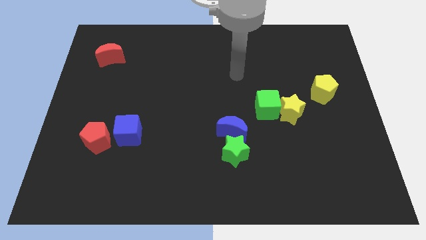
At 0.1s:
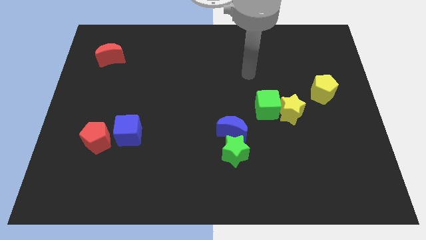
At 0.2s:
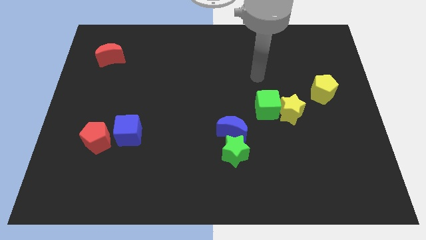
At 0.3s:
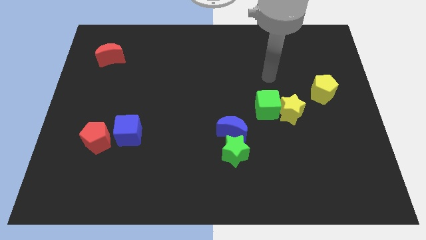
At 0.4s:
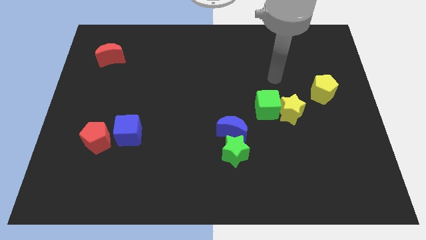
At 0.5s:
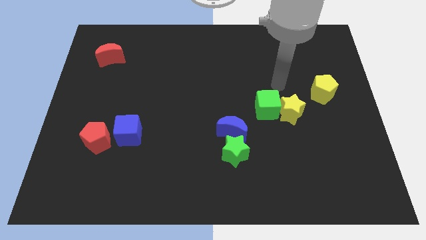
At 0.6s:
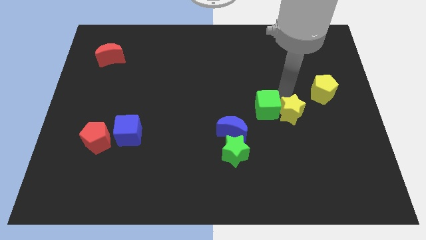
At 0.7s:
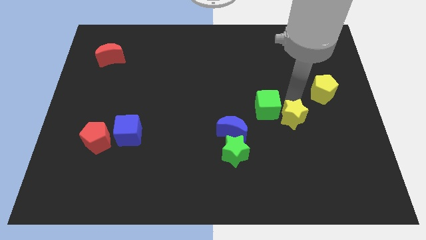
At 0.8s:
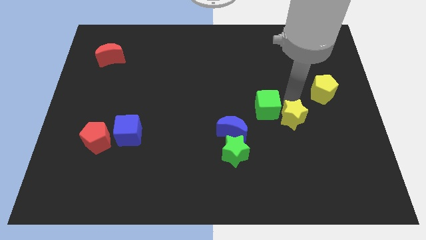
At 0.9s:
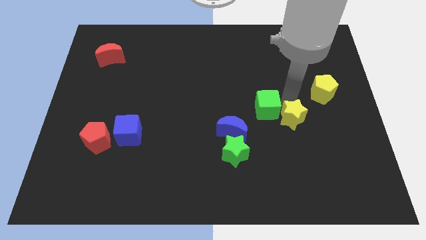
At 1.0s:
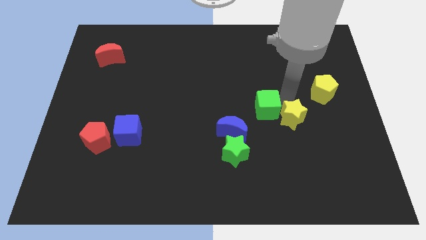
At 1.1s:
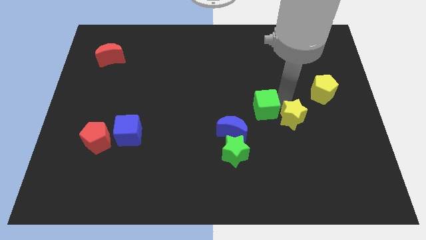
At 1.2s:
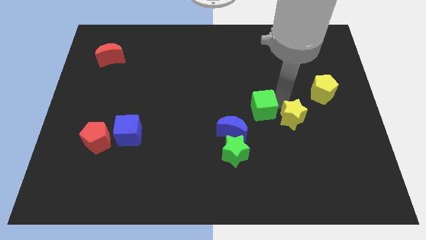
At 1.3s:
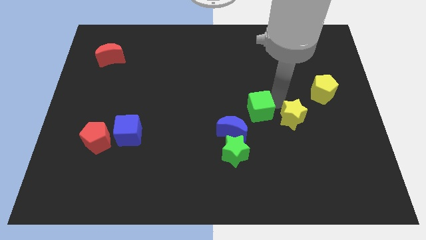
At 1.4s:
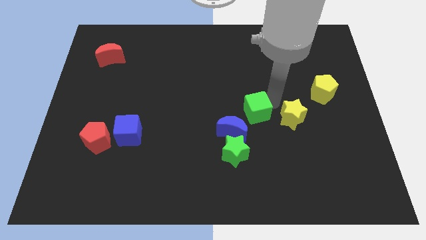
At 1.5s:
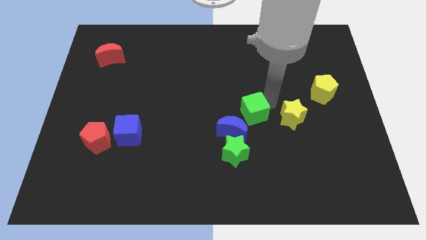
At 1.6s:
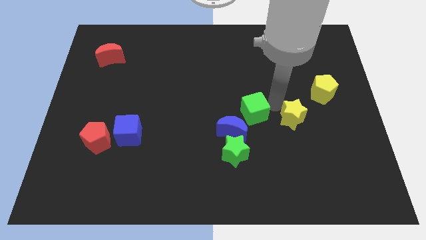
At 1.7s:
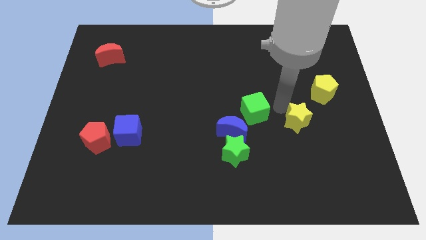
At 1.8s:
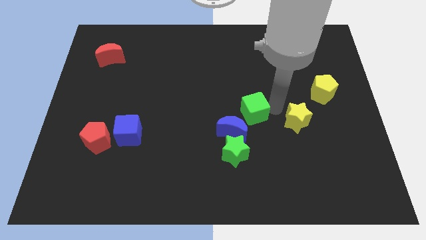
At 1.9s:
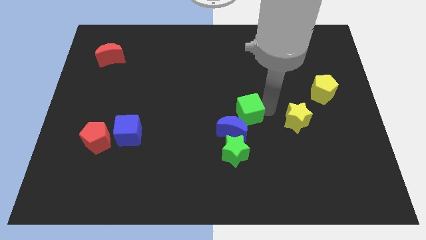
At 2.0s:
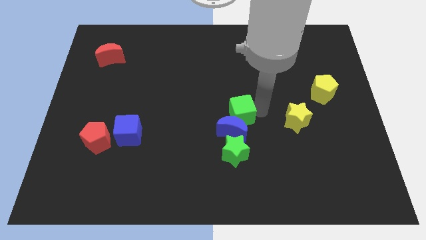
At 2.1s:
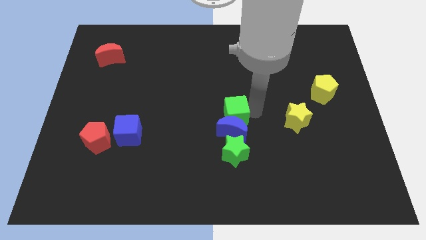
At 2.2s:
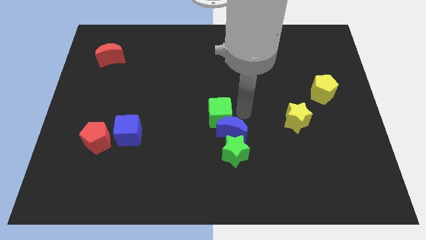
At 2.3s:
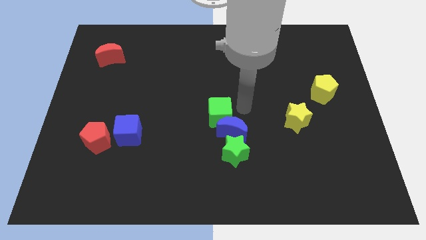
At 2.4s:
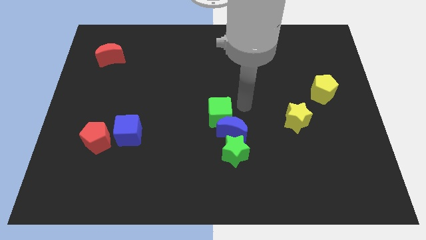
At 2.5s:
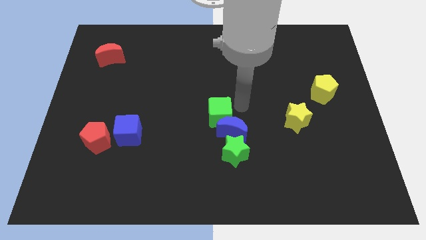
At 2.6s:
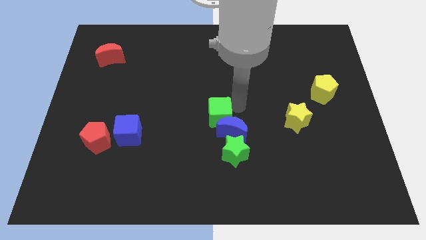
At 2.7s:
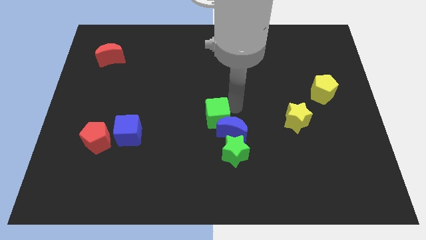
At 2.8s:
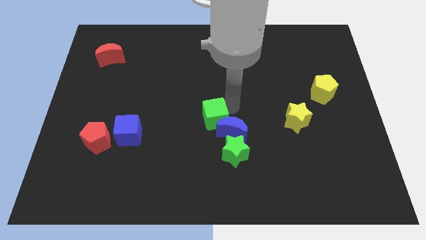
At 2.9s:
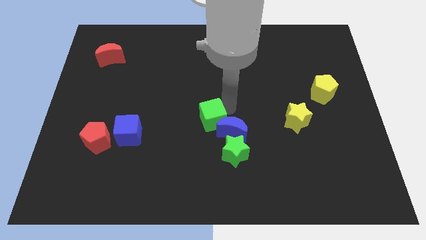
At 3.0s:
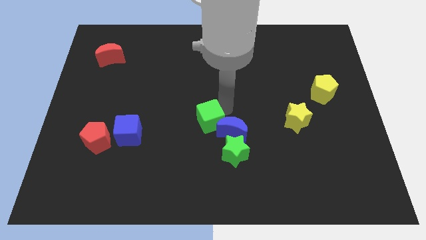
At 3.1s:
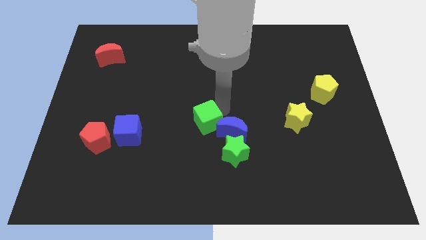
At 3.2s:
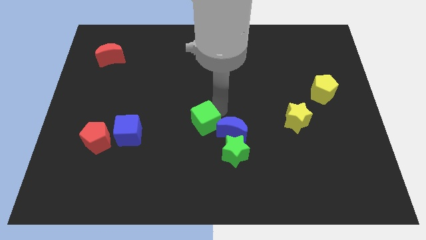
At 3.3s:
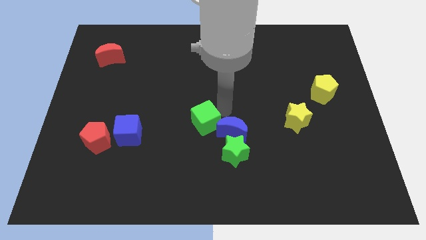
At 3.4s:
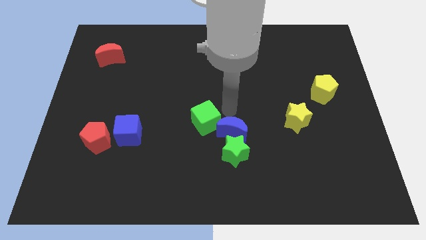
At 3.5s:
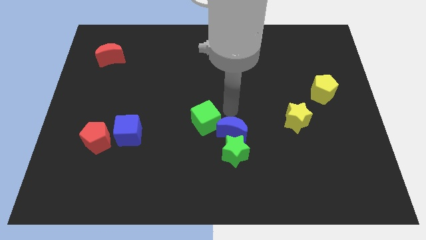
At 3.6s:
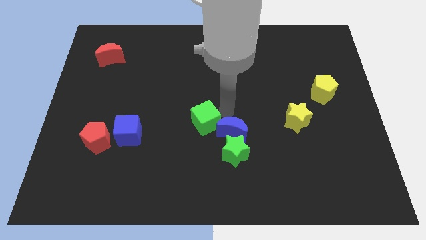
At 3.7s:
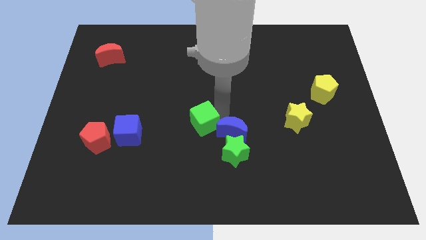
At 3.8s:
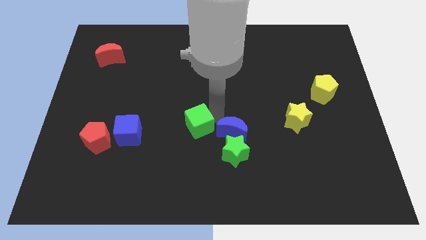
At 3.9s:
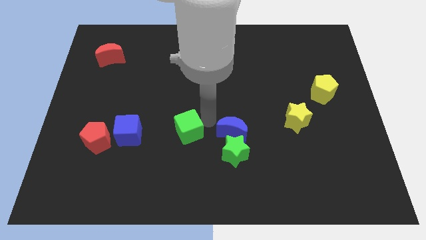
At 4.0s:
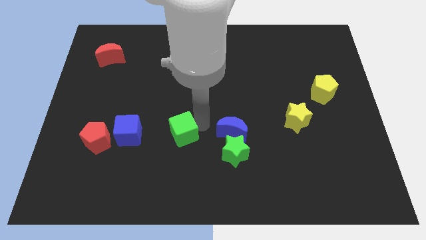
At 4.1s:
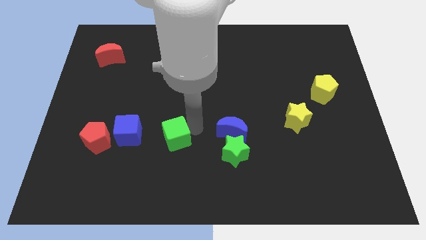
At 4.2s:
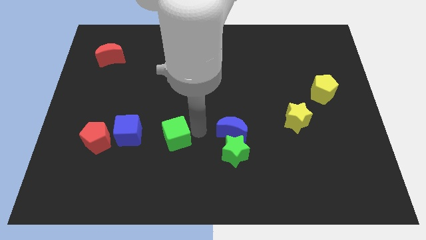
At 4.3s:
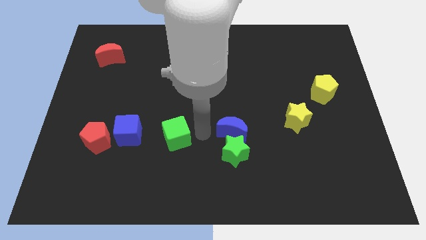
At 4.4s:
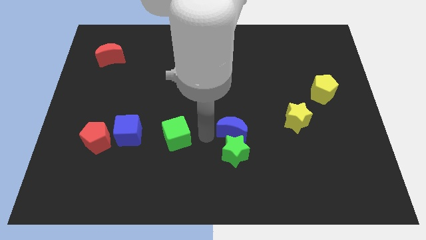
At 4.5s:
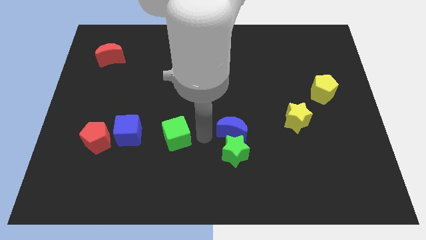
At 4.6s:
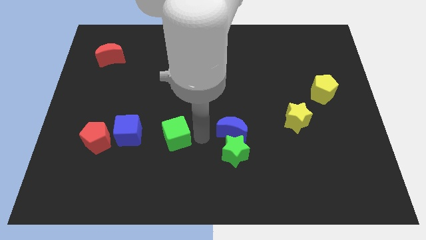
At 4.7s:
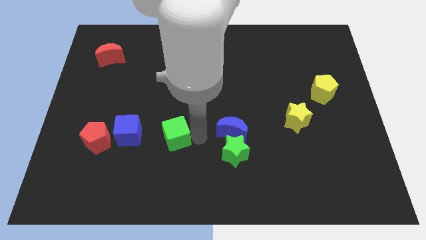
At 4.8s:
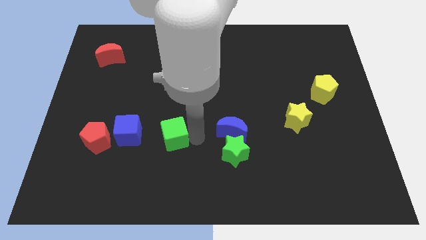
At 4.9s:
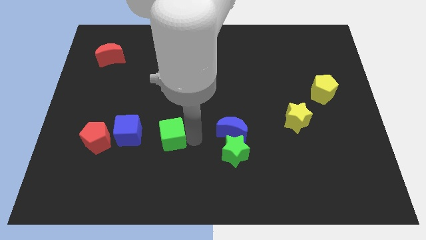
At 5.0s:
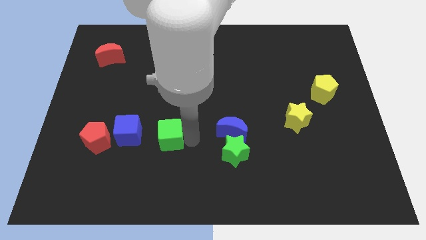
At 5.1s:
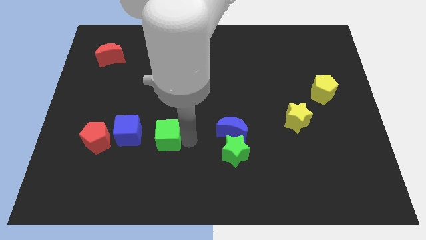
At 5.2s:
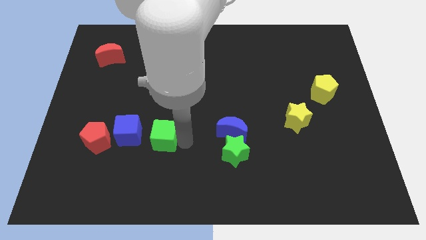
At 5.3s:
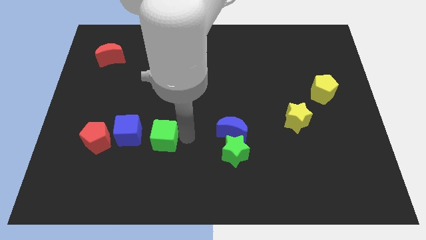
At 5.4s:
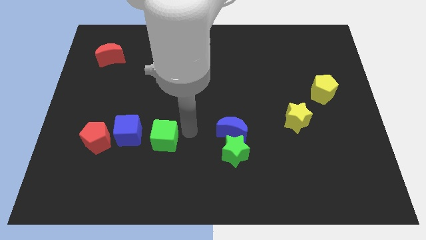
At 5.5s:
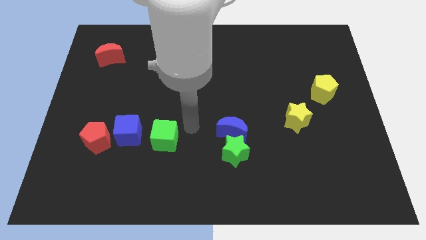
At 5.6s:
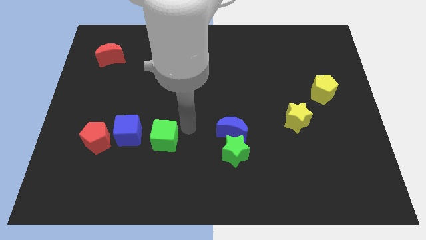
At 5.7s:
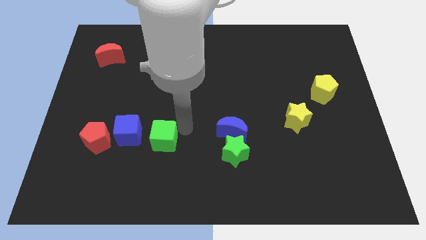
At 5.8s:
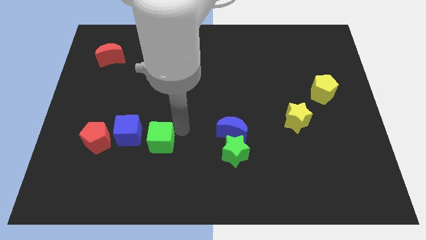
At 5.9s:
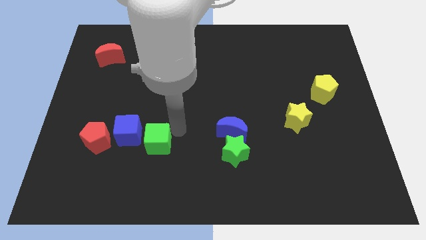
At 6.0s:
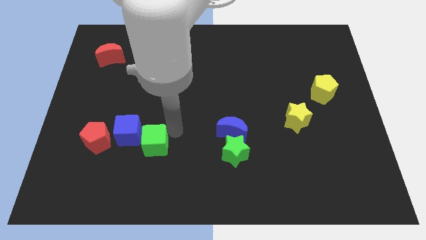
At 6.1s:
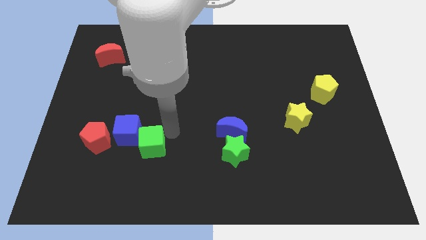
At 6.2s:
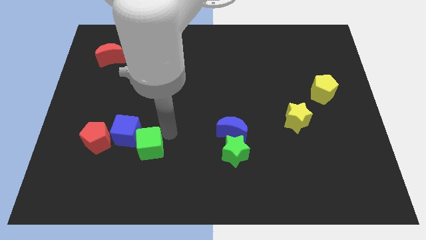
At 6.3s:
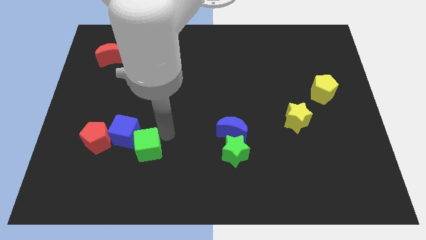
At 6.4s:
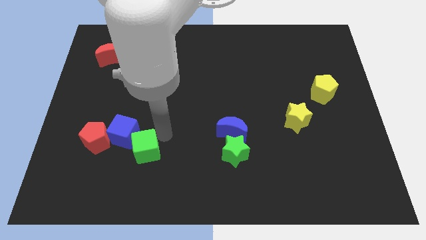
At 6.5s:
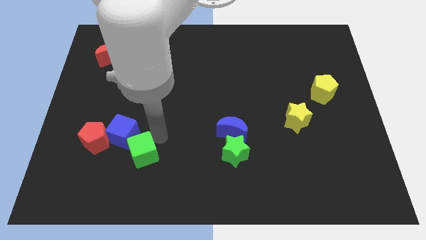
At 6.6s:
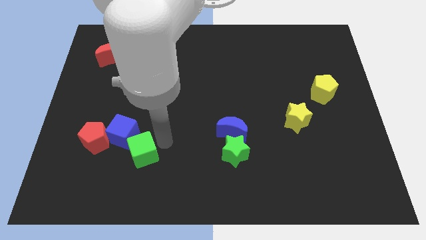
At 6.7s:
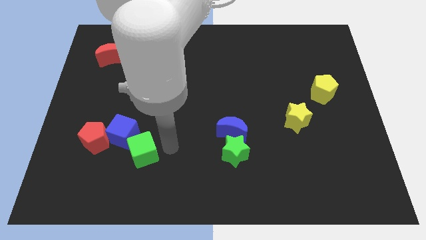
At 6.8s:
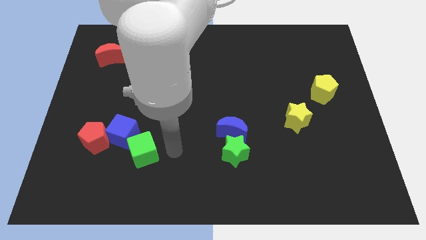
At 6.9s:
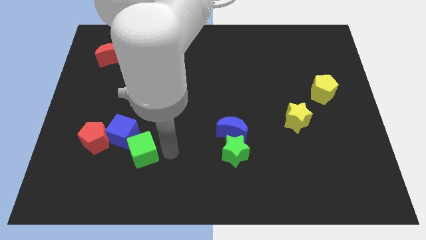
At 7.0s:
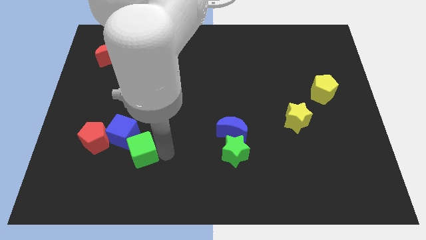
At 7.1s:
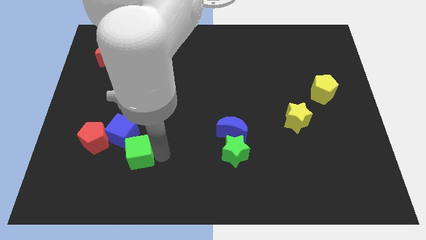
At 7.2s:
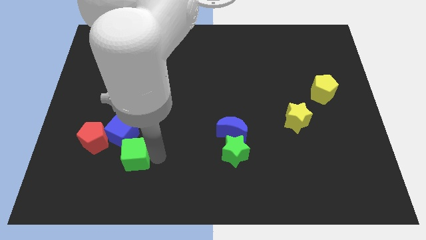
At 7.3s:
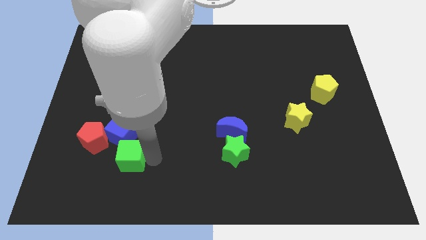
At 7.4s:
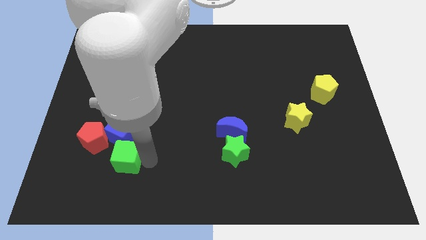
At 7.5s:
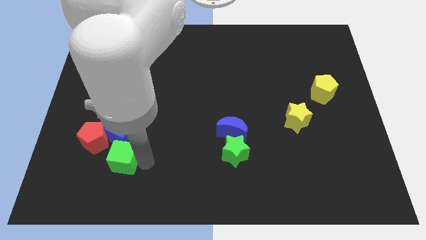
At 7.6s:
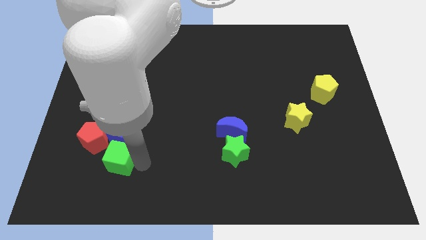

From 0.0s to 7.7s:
push the green cube to the bottom left of the blue cube

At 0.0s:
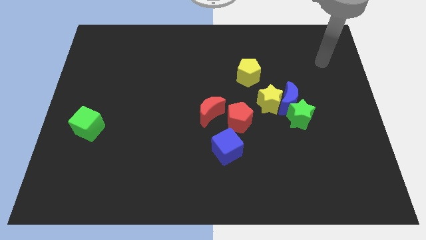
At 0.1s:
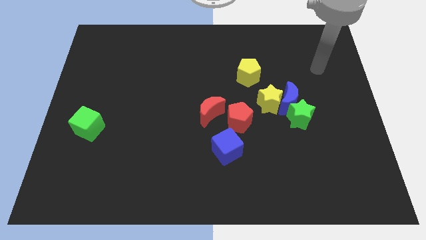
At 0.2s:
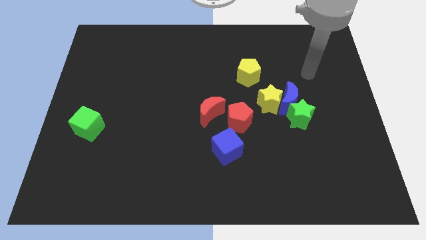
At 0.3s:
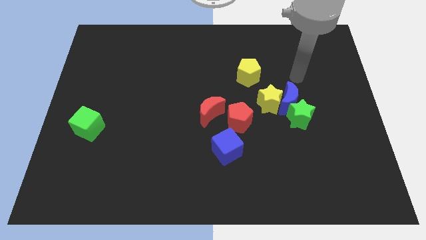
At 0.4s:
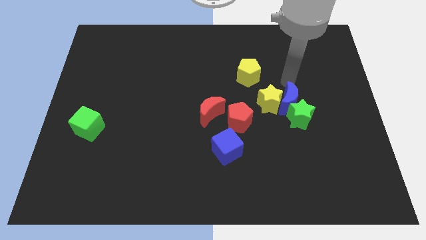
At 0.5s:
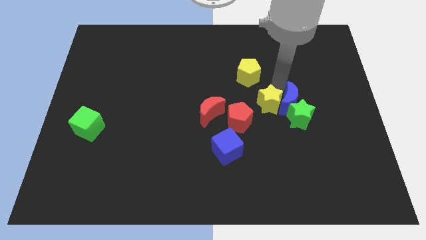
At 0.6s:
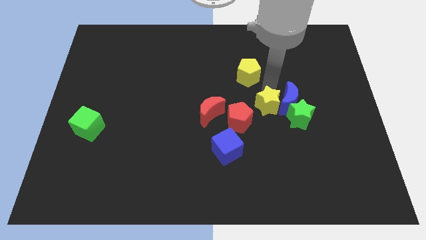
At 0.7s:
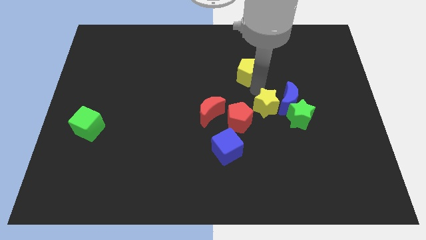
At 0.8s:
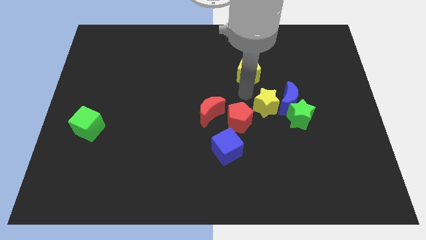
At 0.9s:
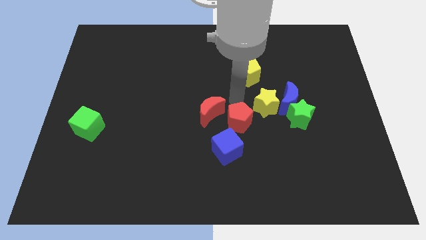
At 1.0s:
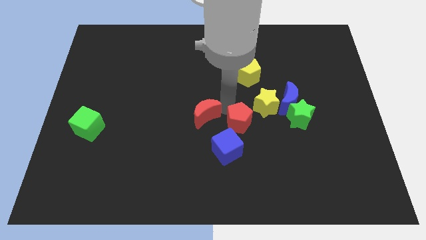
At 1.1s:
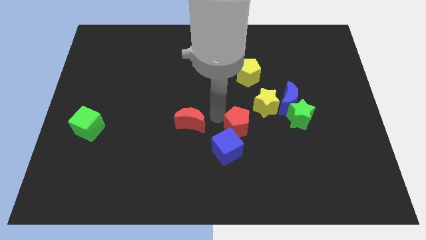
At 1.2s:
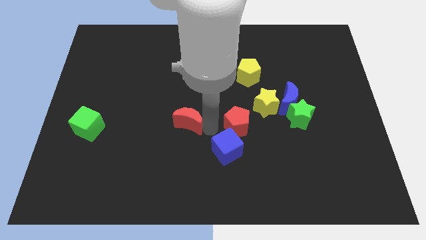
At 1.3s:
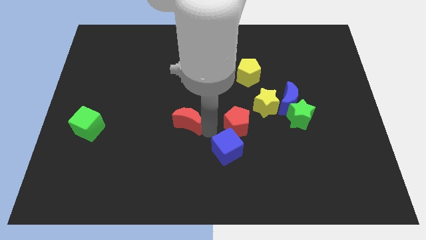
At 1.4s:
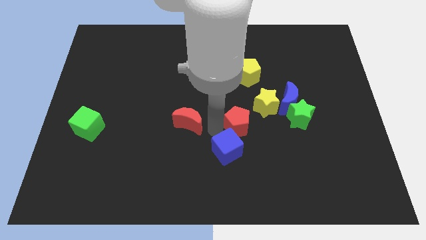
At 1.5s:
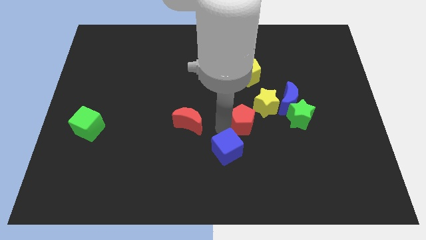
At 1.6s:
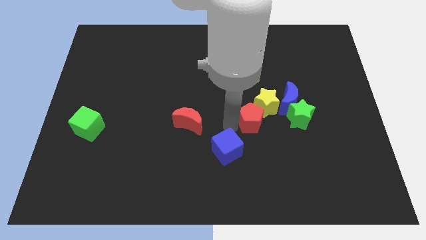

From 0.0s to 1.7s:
move the red pentagon to the bottom left side of the blue moon
